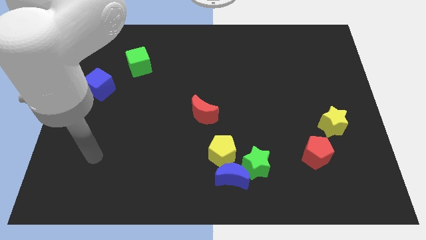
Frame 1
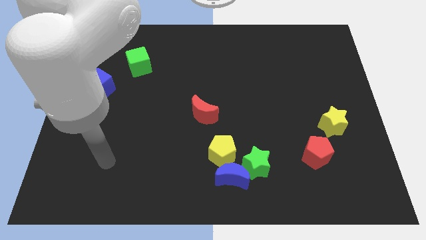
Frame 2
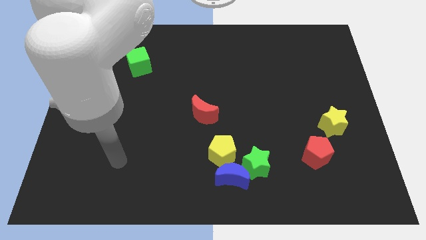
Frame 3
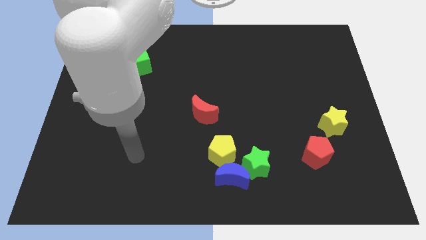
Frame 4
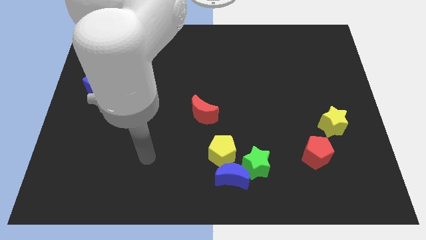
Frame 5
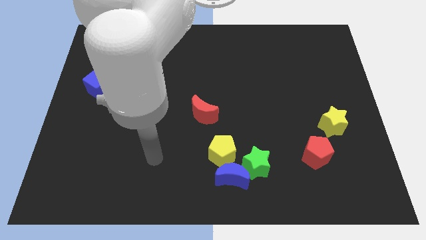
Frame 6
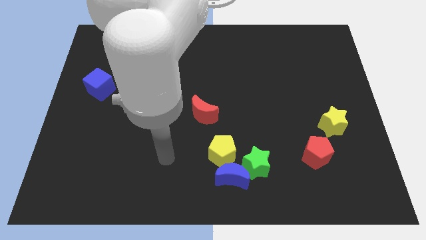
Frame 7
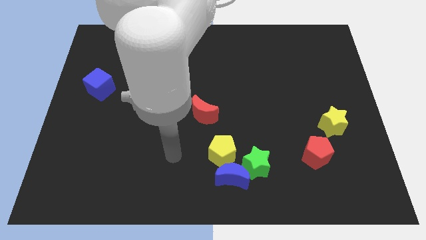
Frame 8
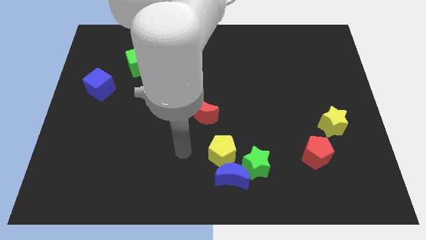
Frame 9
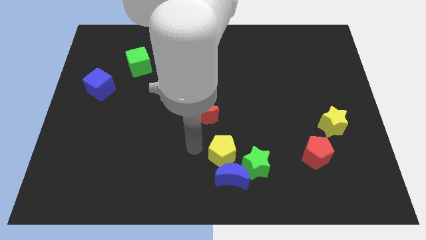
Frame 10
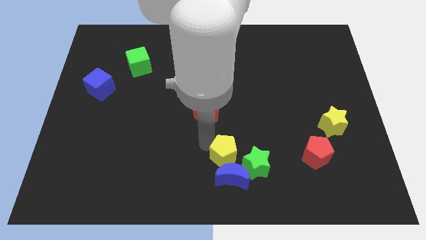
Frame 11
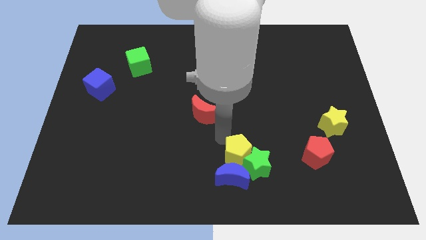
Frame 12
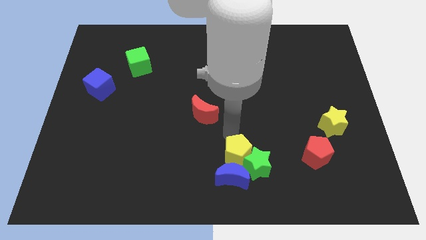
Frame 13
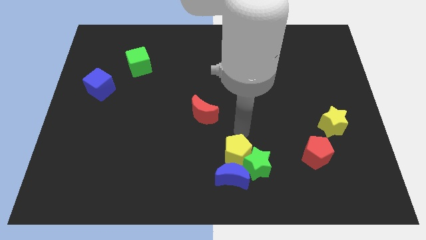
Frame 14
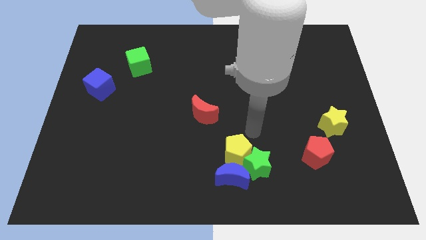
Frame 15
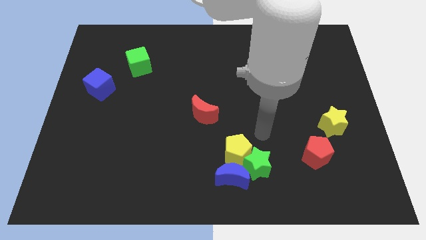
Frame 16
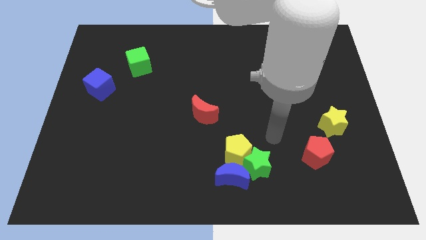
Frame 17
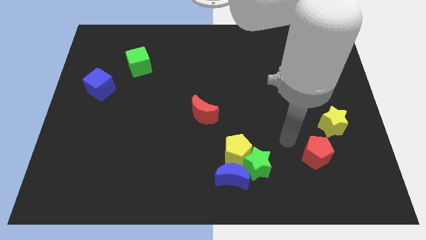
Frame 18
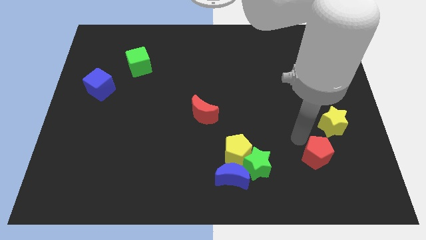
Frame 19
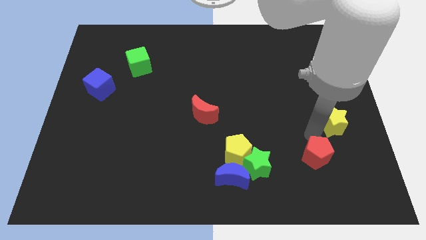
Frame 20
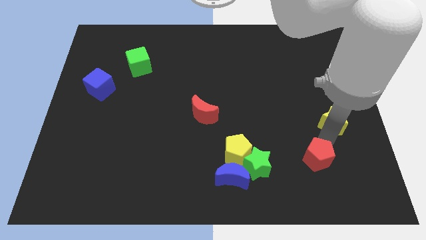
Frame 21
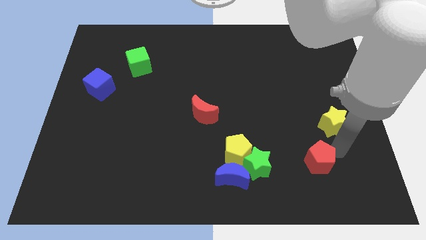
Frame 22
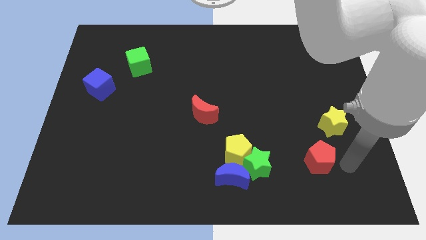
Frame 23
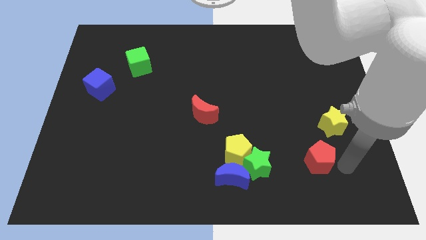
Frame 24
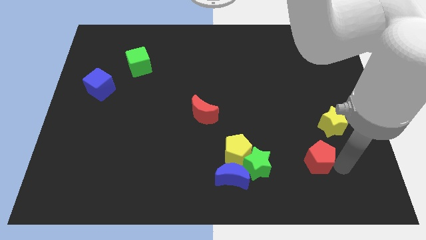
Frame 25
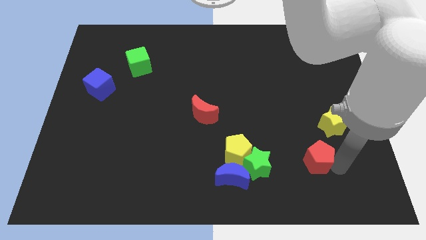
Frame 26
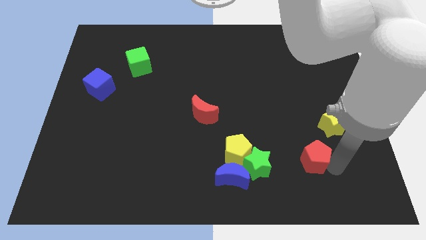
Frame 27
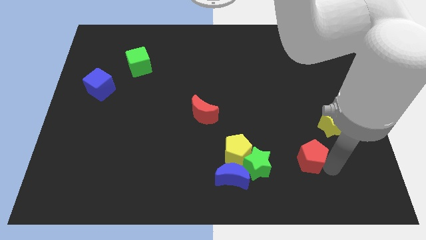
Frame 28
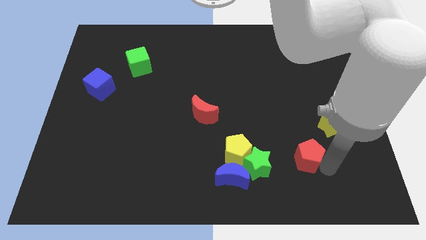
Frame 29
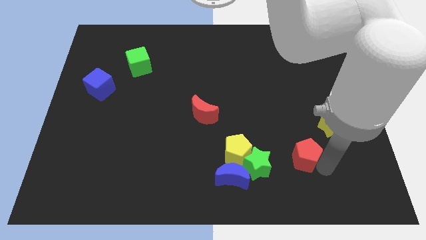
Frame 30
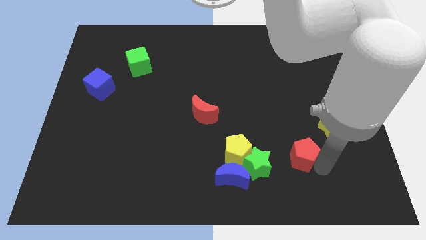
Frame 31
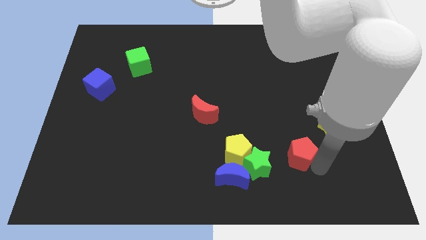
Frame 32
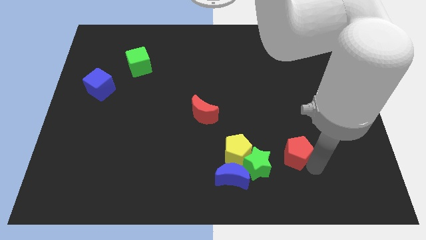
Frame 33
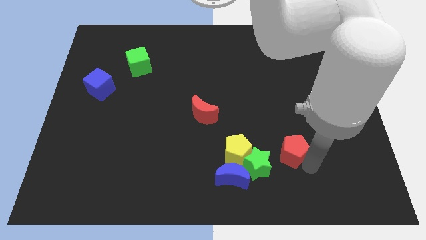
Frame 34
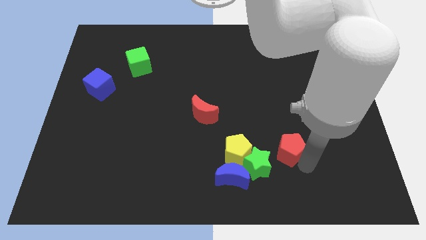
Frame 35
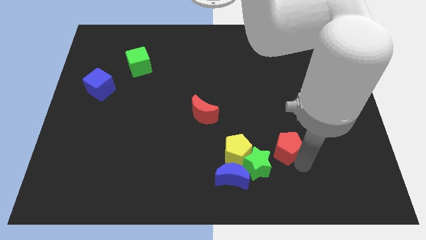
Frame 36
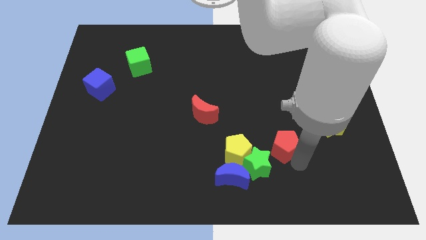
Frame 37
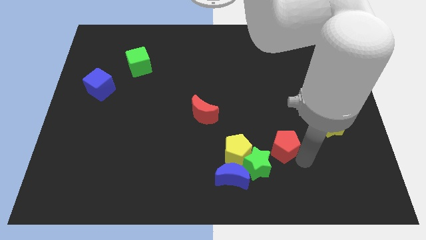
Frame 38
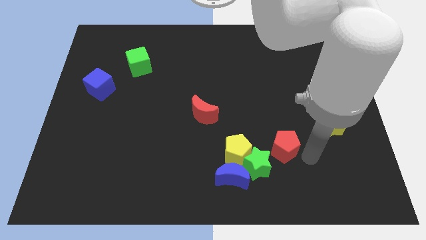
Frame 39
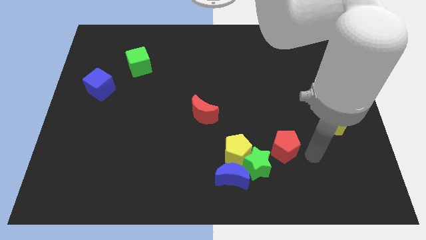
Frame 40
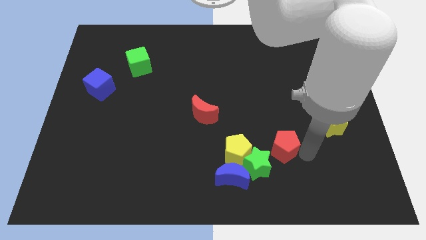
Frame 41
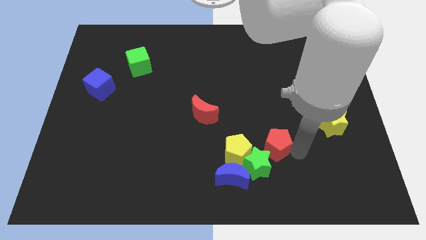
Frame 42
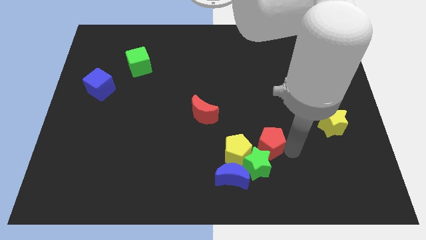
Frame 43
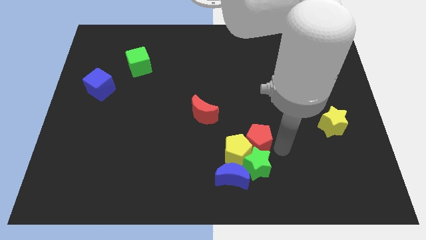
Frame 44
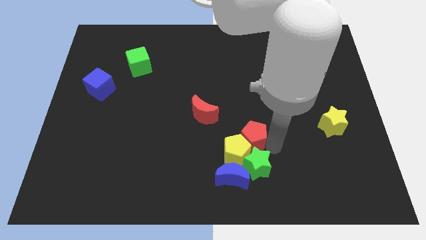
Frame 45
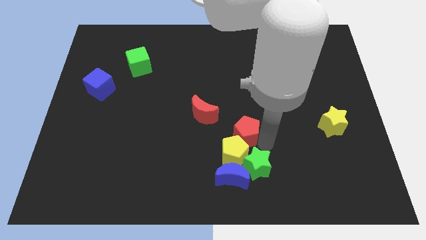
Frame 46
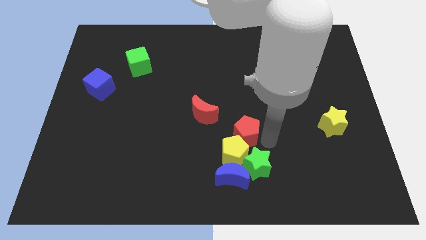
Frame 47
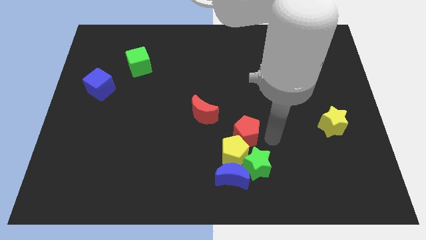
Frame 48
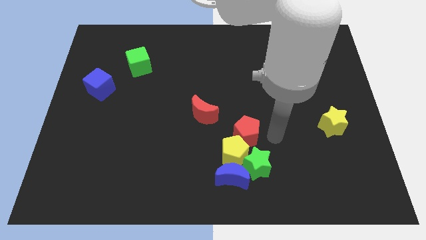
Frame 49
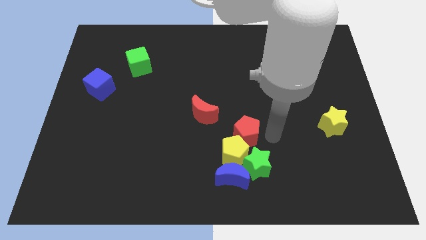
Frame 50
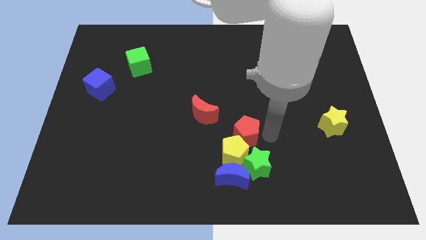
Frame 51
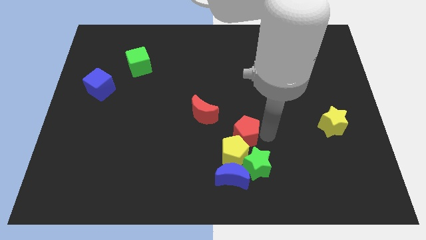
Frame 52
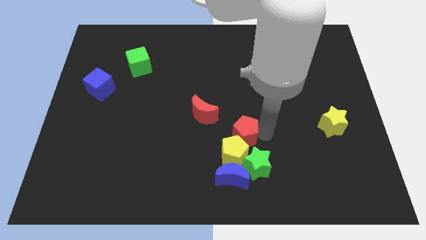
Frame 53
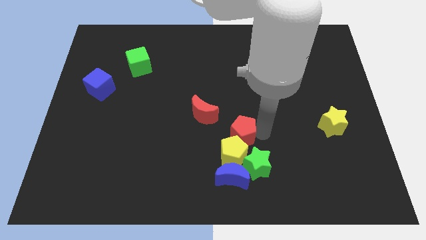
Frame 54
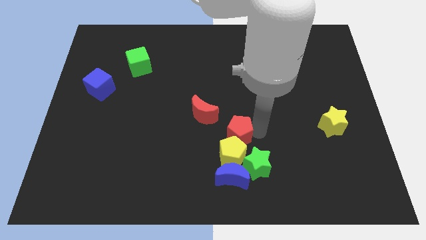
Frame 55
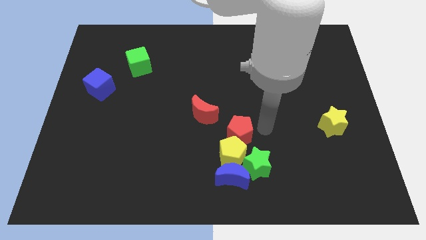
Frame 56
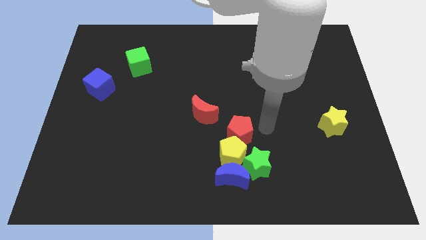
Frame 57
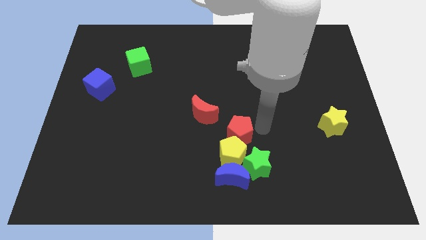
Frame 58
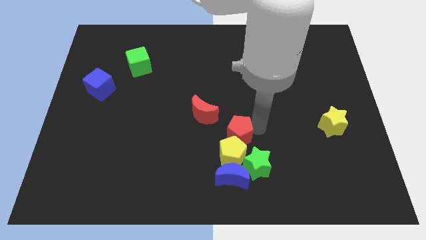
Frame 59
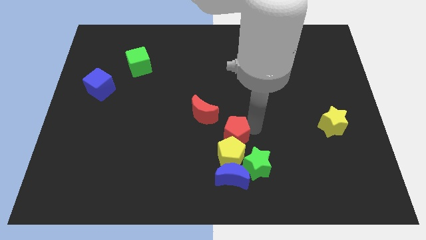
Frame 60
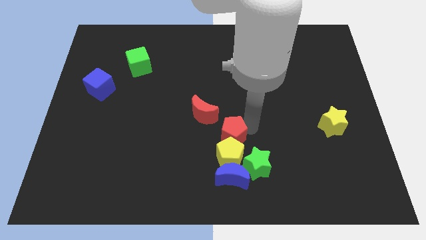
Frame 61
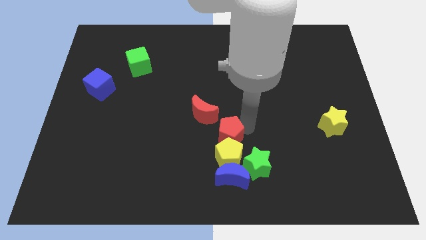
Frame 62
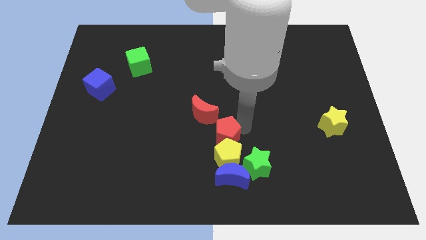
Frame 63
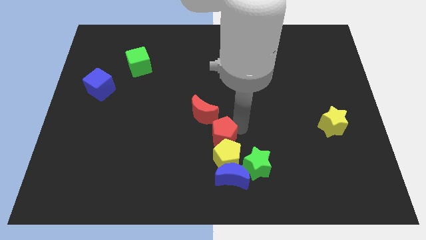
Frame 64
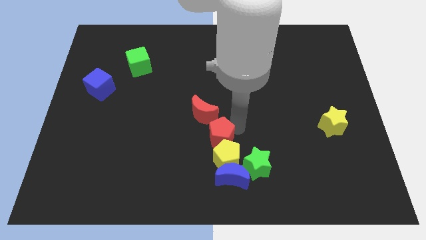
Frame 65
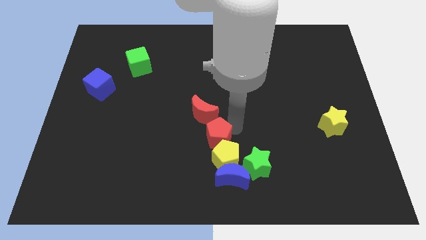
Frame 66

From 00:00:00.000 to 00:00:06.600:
slide the red pentagon left

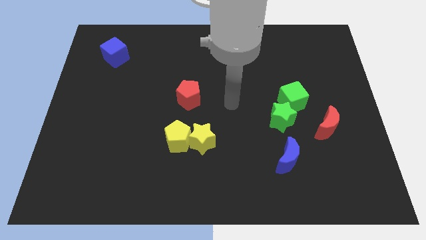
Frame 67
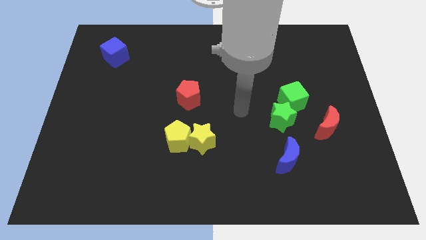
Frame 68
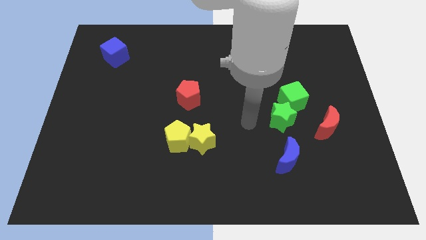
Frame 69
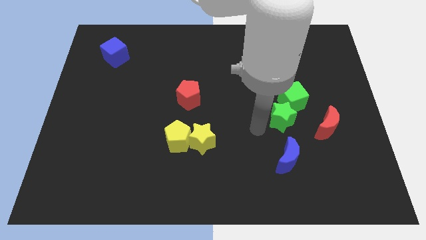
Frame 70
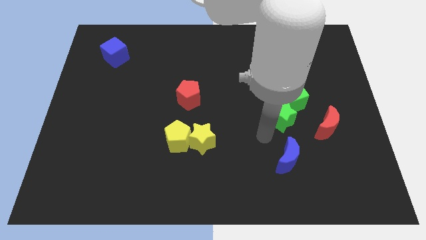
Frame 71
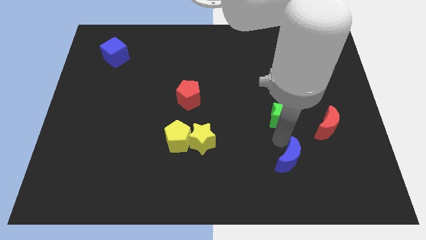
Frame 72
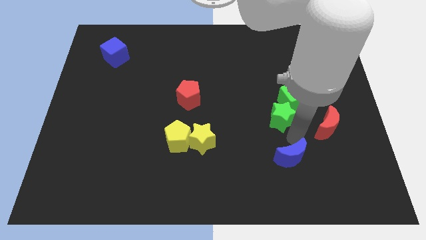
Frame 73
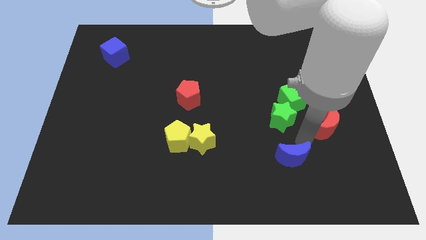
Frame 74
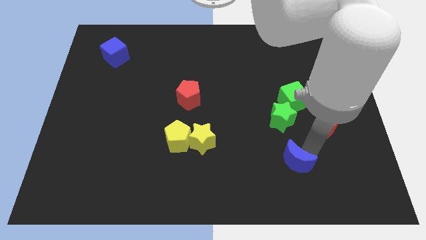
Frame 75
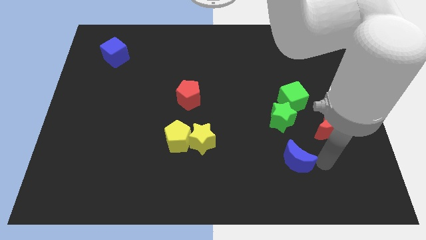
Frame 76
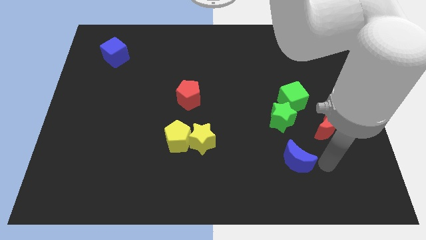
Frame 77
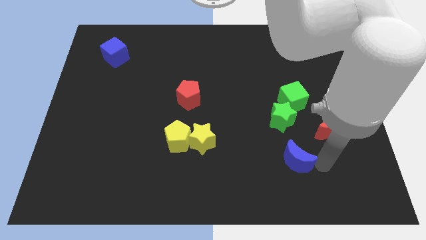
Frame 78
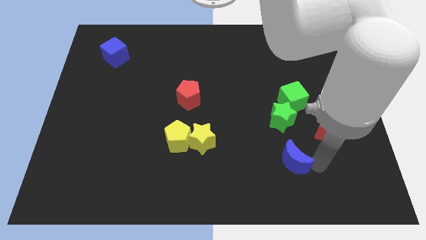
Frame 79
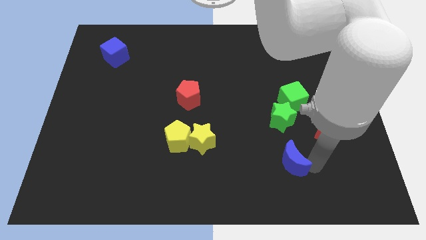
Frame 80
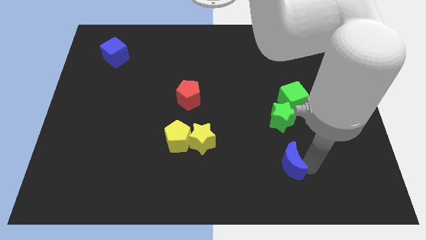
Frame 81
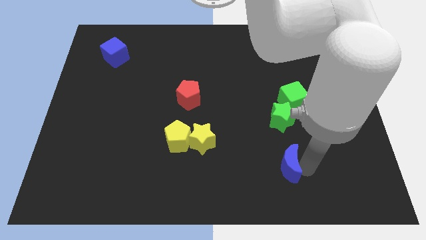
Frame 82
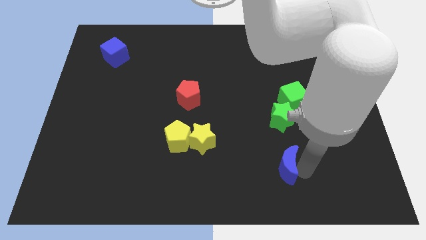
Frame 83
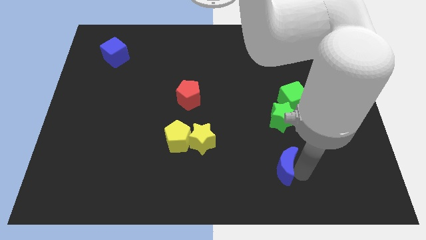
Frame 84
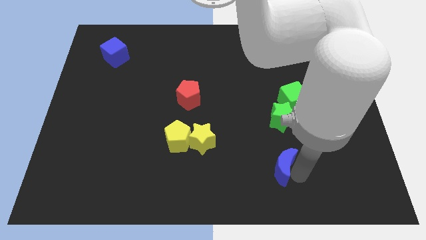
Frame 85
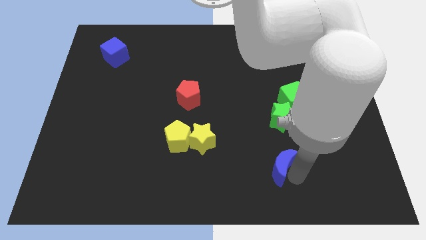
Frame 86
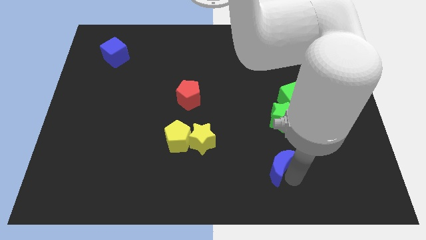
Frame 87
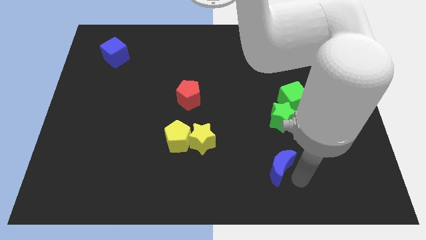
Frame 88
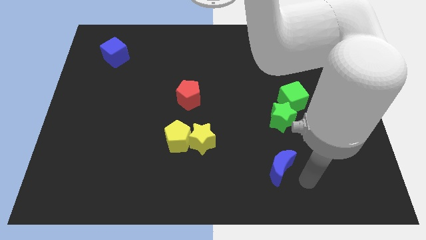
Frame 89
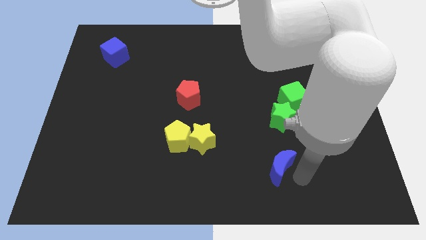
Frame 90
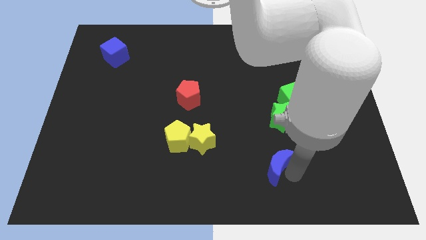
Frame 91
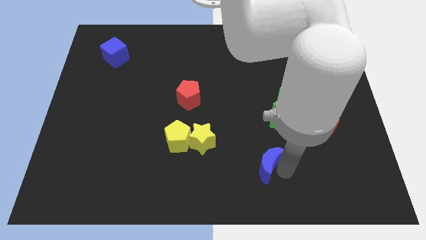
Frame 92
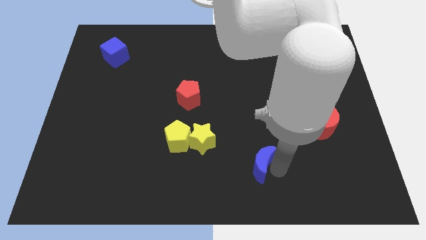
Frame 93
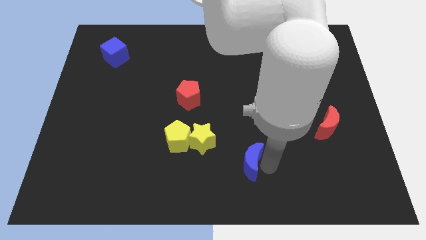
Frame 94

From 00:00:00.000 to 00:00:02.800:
slide the blue moon left somewhat
